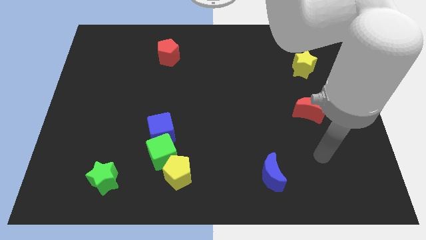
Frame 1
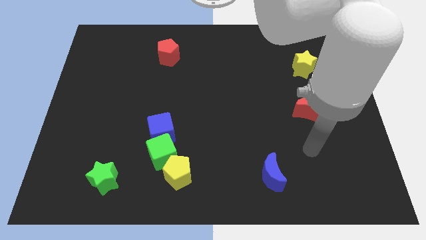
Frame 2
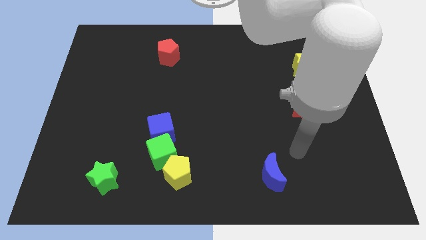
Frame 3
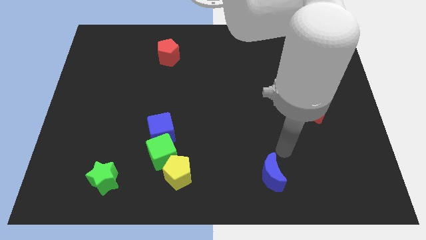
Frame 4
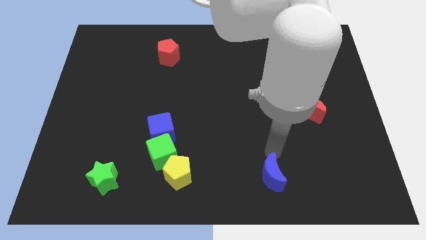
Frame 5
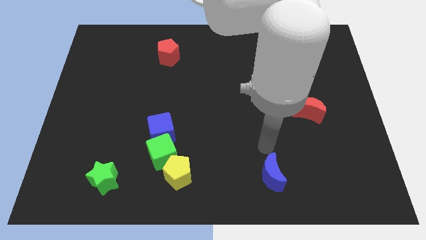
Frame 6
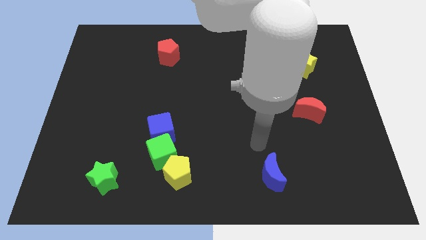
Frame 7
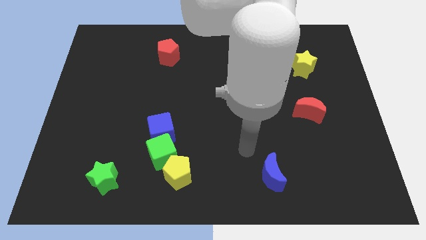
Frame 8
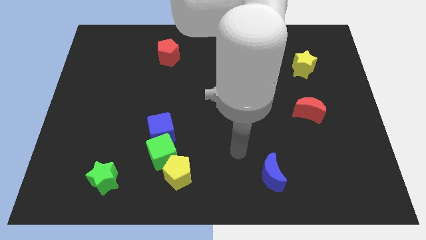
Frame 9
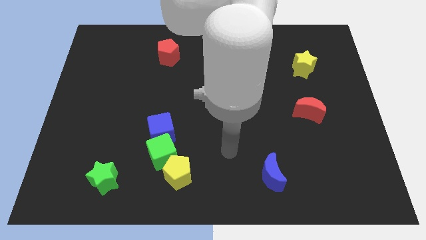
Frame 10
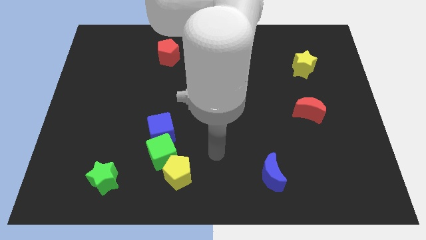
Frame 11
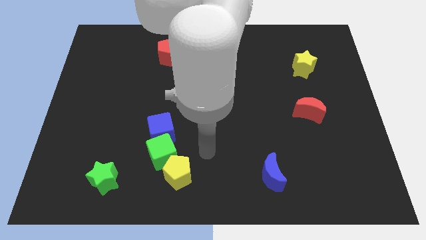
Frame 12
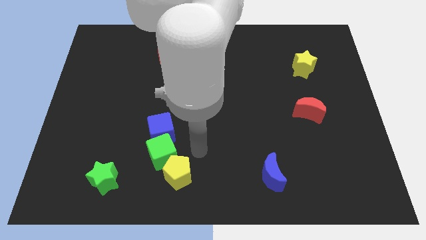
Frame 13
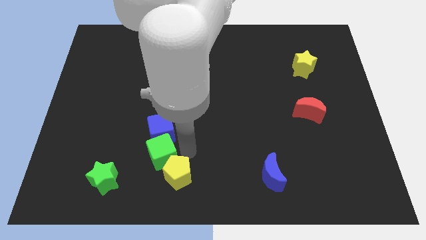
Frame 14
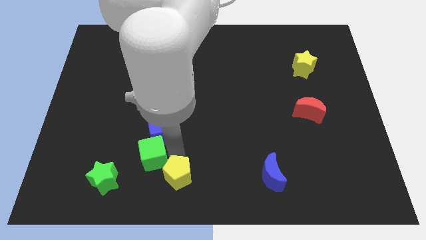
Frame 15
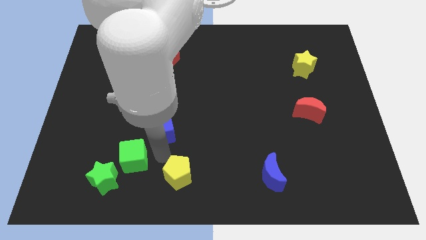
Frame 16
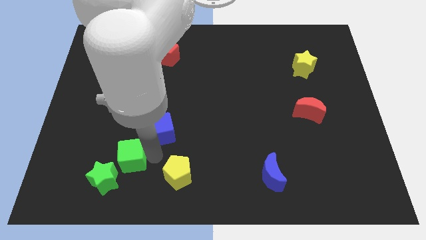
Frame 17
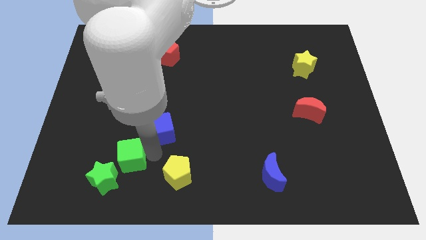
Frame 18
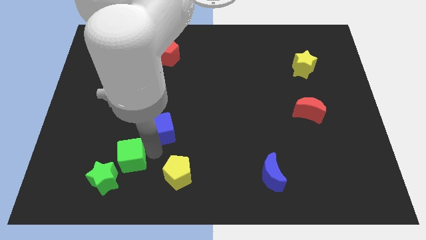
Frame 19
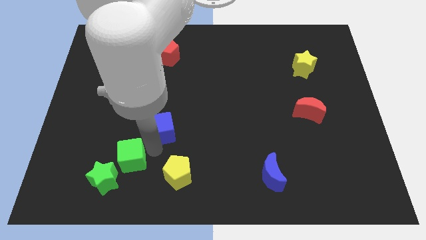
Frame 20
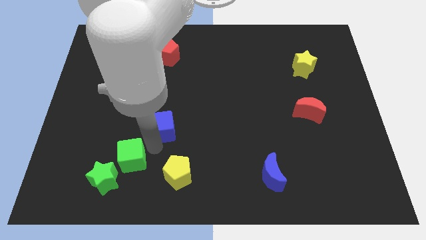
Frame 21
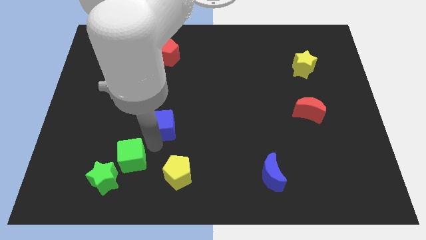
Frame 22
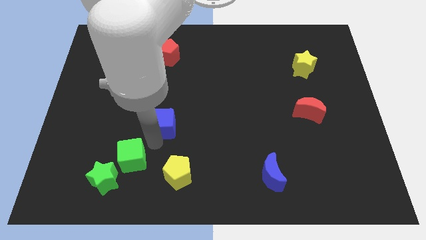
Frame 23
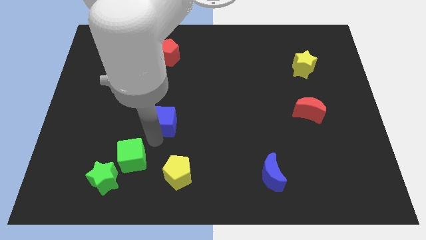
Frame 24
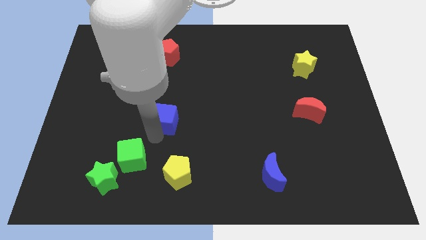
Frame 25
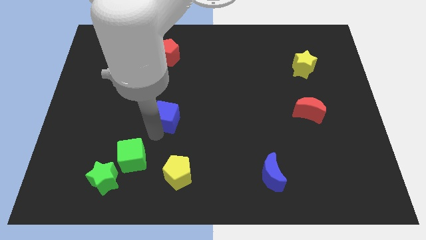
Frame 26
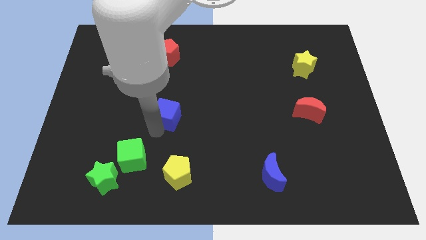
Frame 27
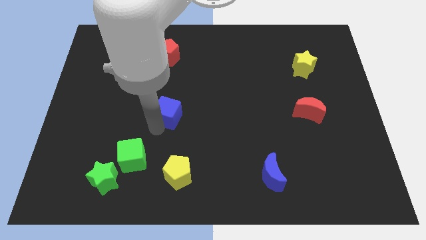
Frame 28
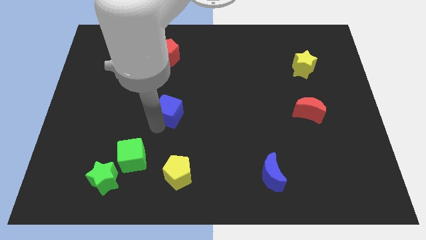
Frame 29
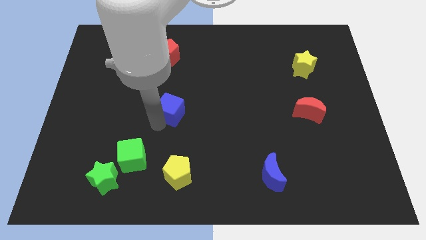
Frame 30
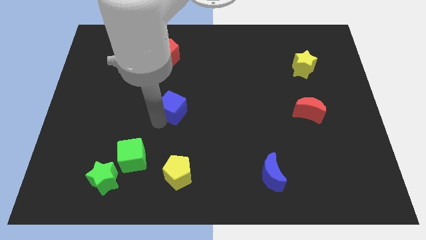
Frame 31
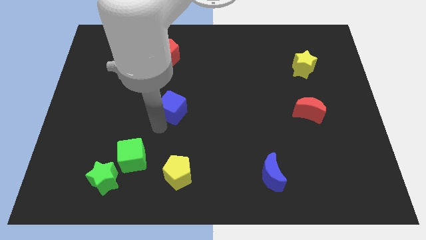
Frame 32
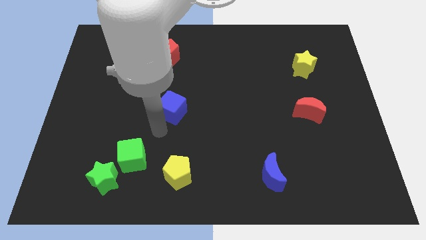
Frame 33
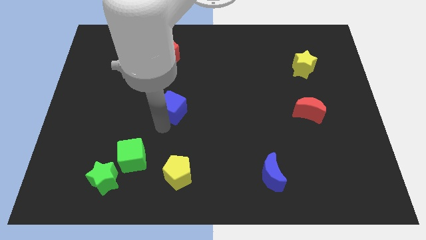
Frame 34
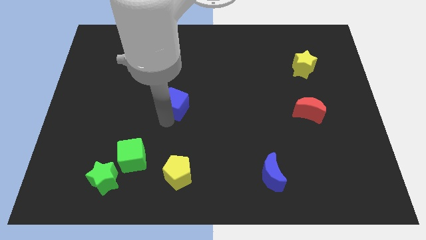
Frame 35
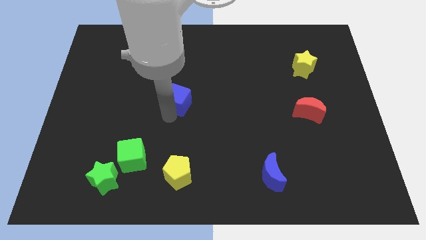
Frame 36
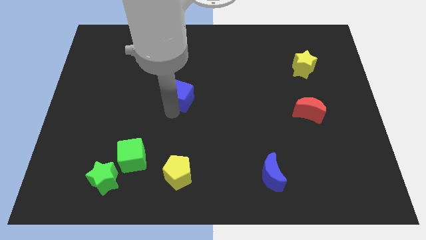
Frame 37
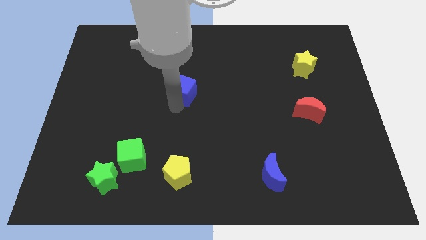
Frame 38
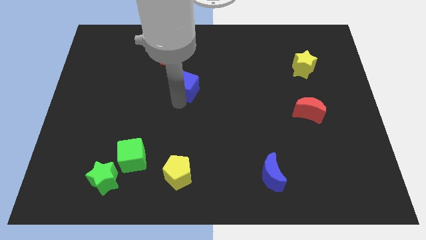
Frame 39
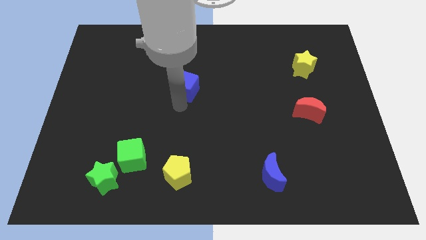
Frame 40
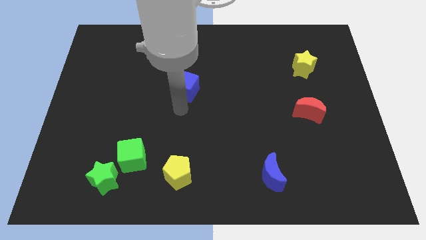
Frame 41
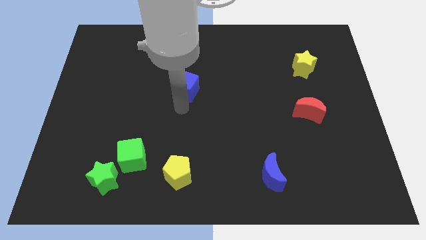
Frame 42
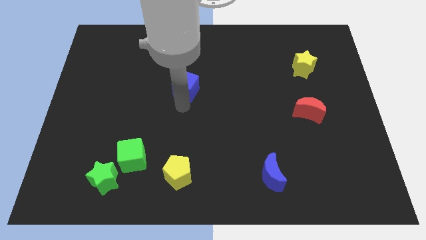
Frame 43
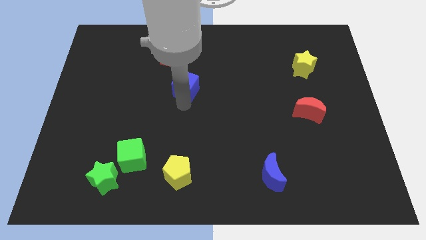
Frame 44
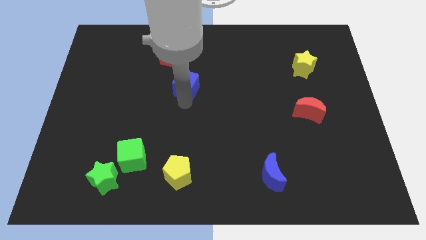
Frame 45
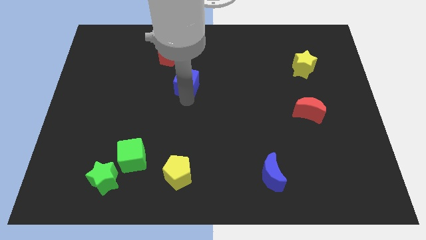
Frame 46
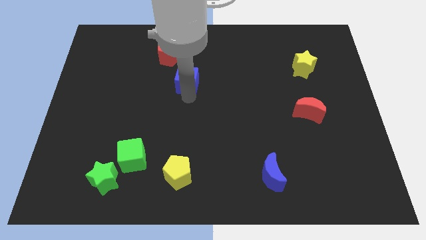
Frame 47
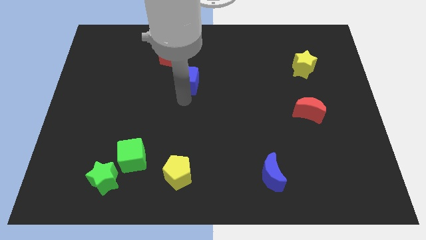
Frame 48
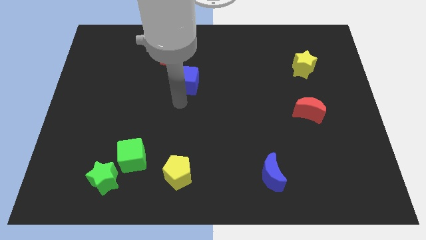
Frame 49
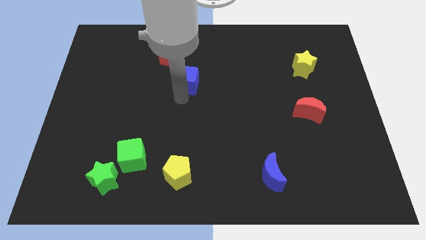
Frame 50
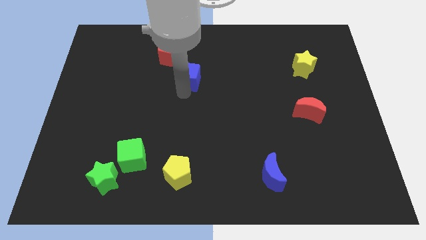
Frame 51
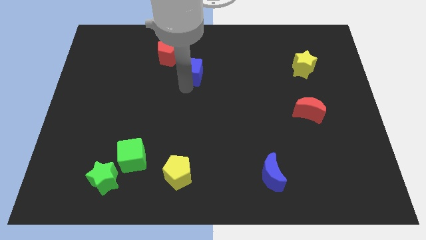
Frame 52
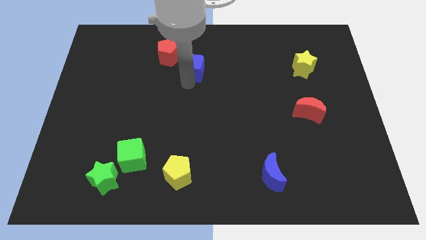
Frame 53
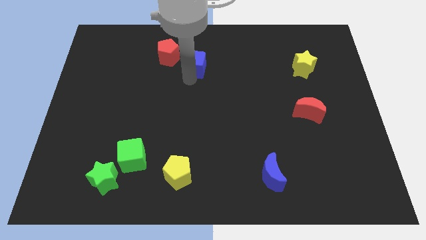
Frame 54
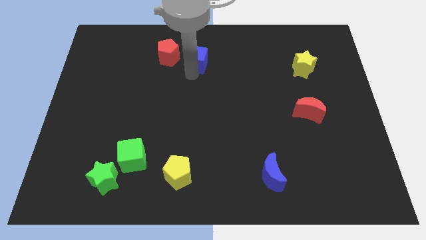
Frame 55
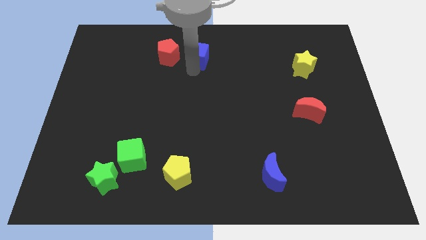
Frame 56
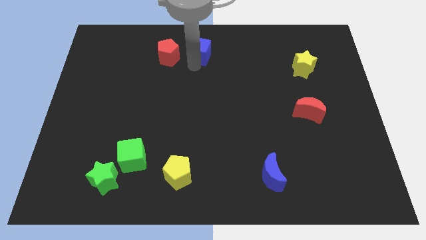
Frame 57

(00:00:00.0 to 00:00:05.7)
push the blue cube to the towards your base

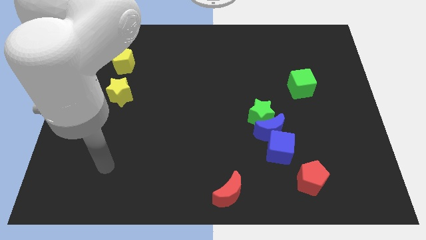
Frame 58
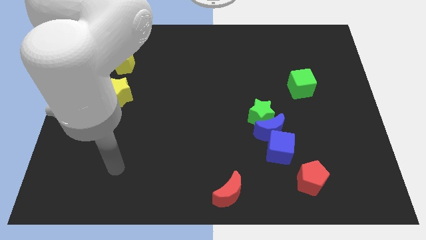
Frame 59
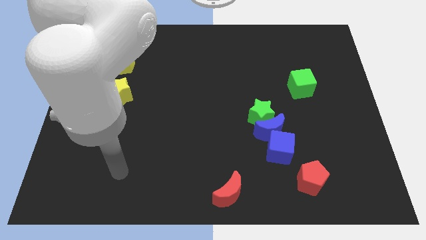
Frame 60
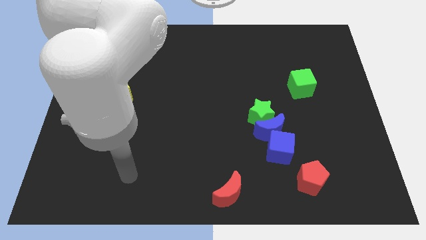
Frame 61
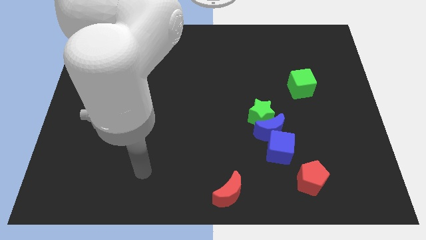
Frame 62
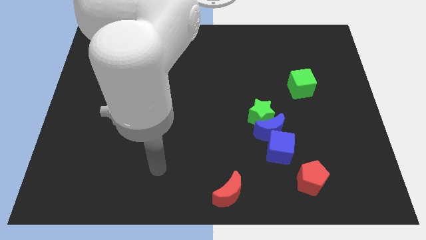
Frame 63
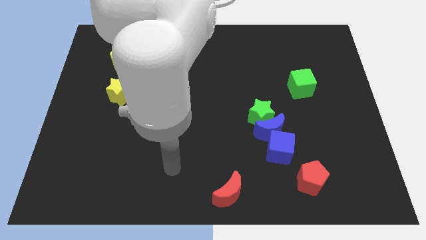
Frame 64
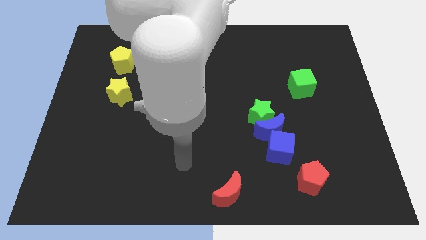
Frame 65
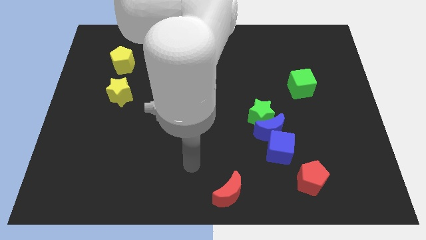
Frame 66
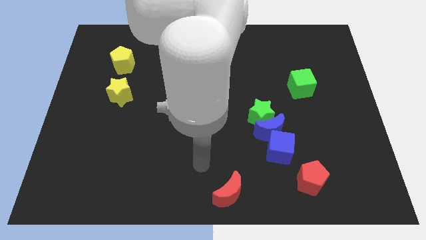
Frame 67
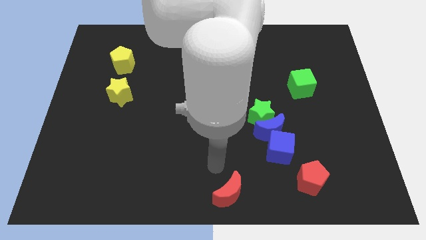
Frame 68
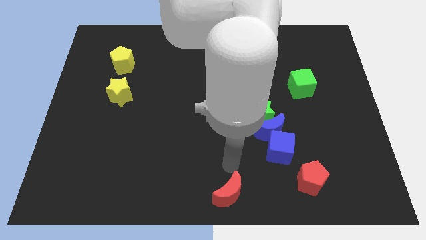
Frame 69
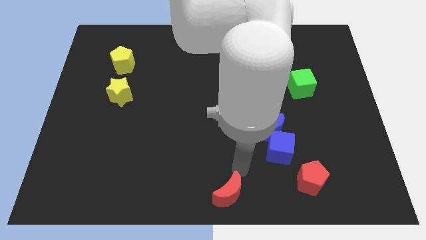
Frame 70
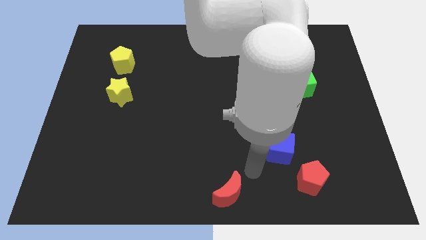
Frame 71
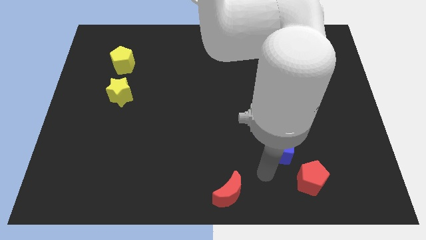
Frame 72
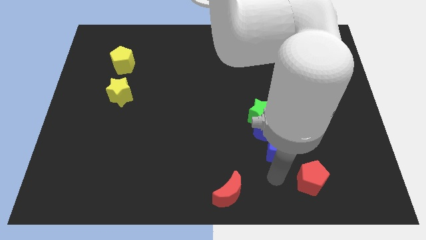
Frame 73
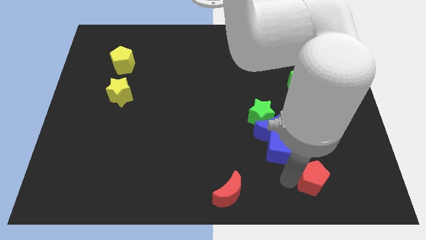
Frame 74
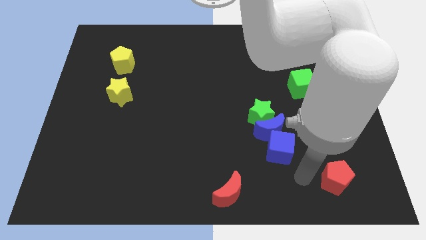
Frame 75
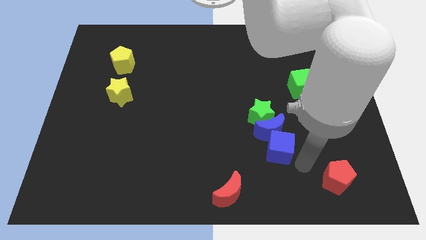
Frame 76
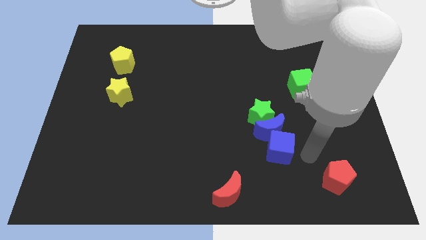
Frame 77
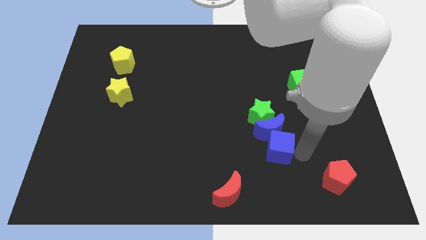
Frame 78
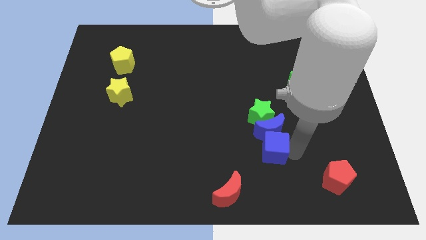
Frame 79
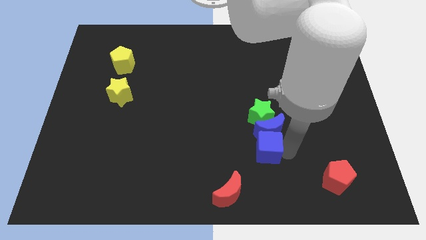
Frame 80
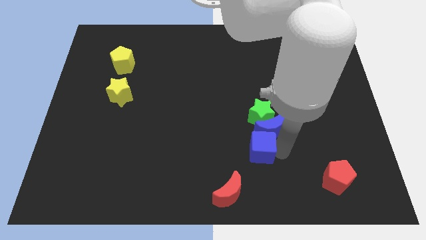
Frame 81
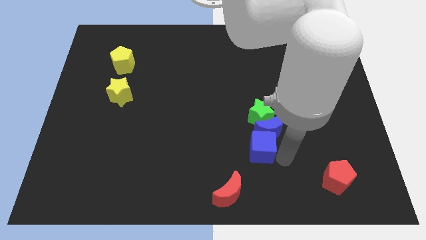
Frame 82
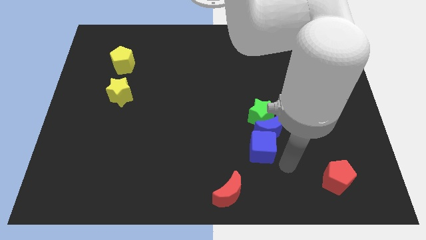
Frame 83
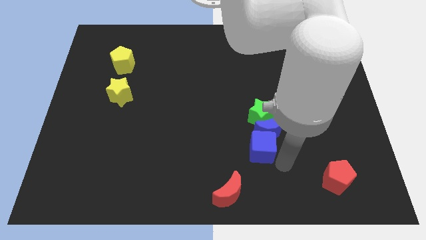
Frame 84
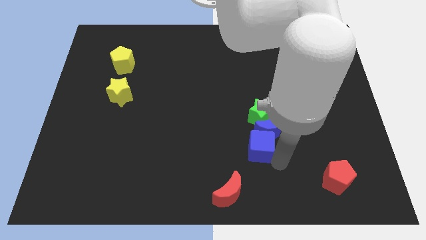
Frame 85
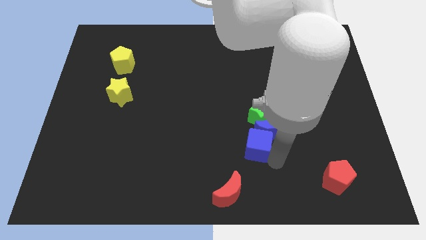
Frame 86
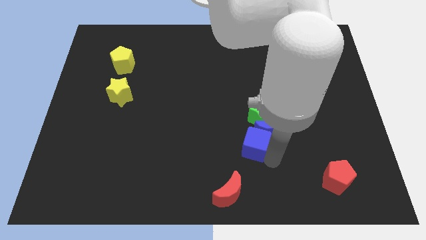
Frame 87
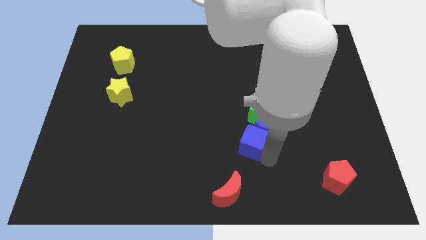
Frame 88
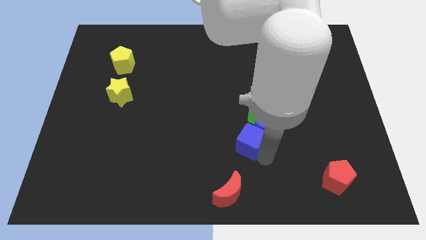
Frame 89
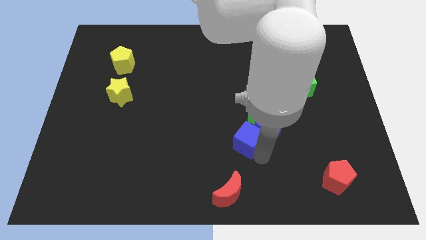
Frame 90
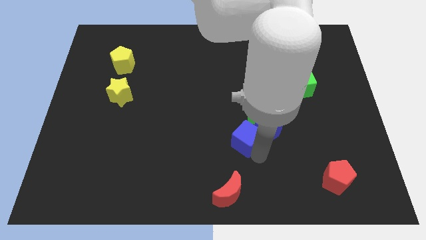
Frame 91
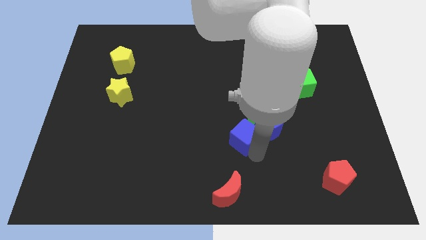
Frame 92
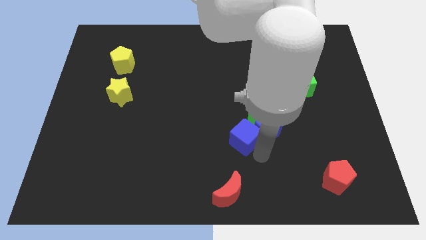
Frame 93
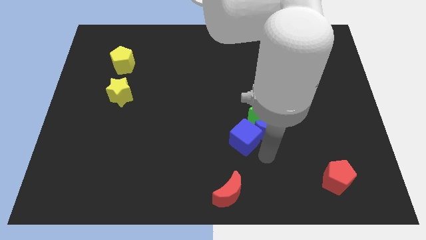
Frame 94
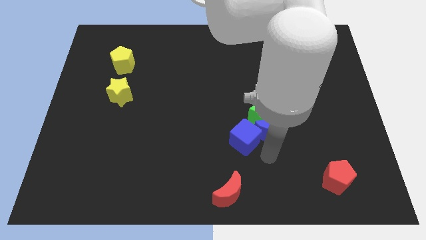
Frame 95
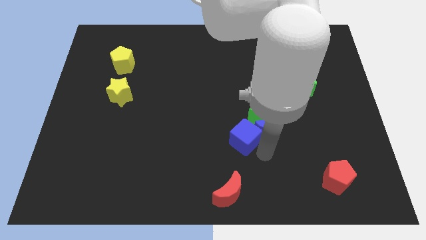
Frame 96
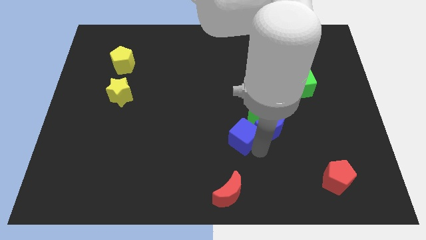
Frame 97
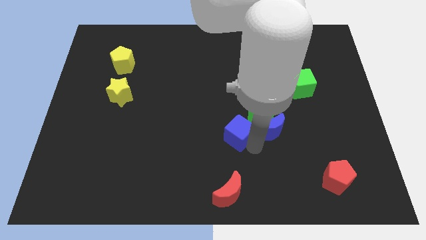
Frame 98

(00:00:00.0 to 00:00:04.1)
move the blue cube to the center of the board
